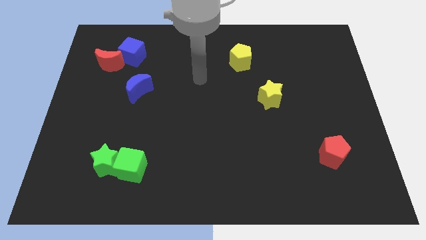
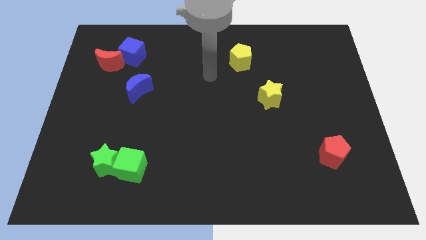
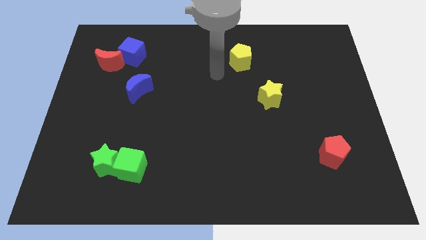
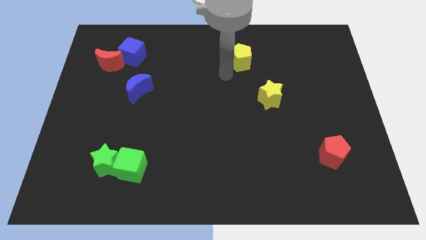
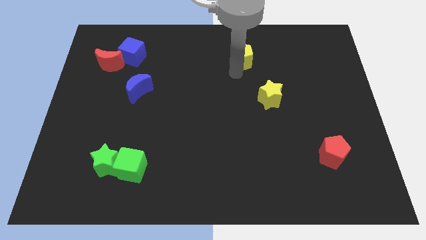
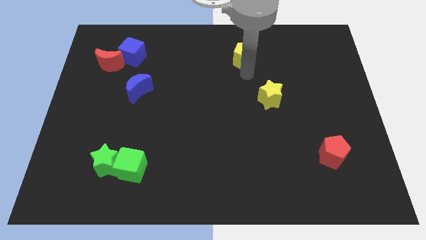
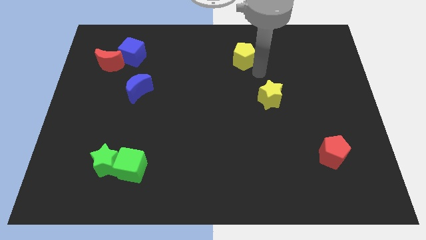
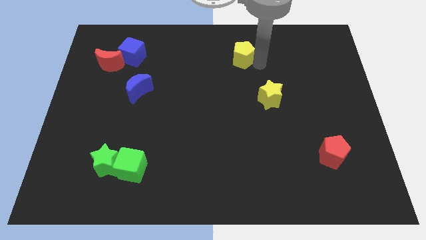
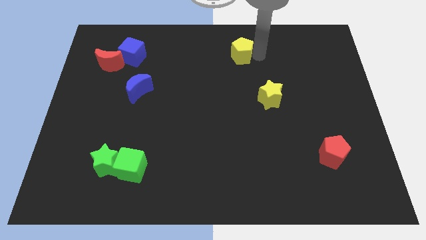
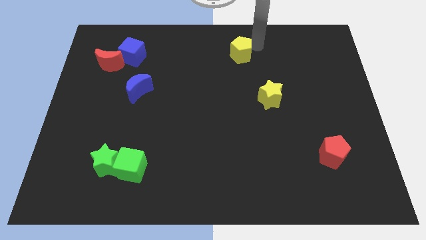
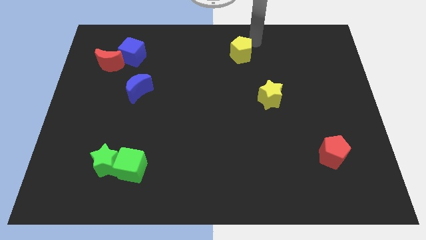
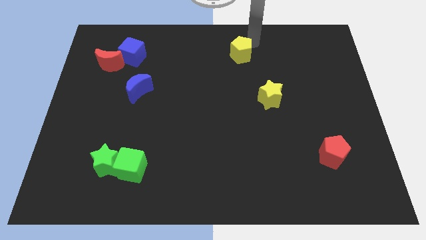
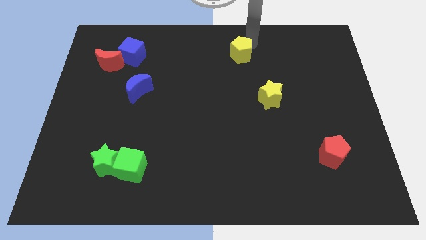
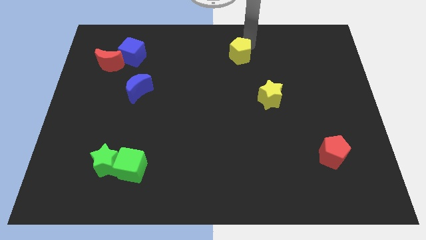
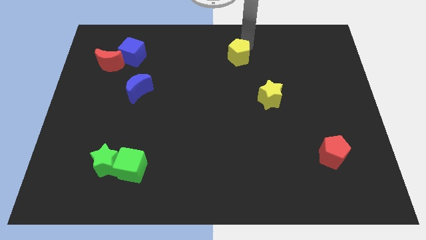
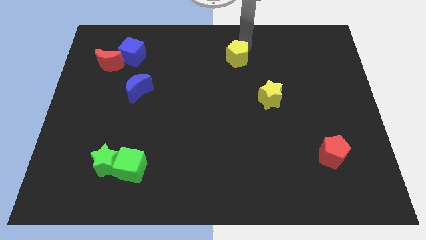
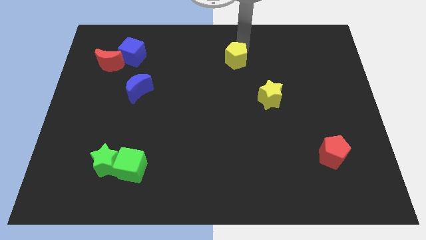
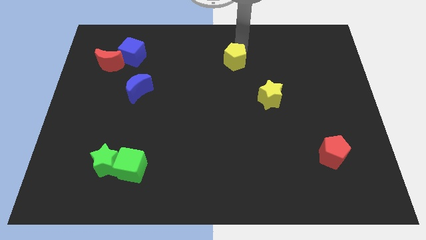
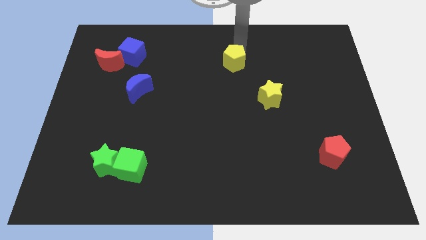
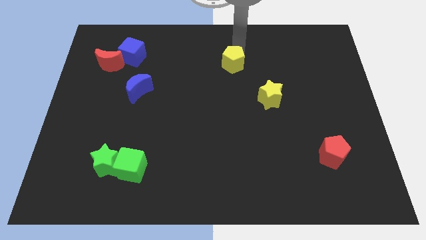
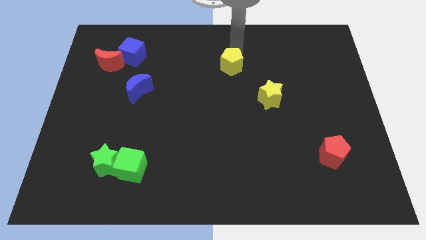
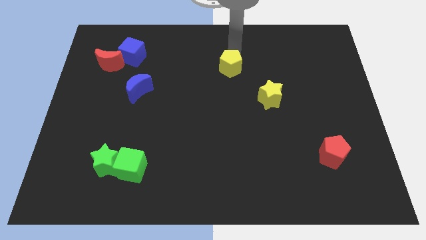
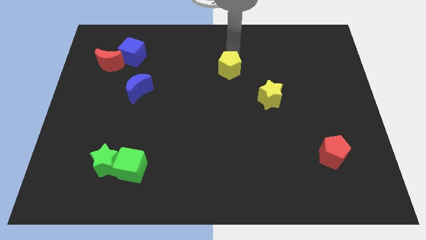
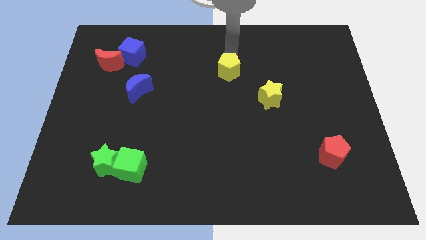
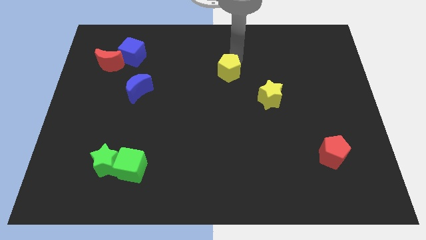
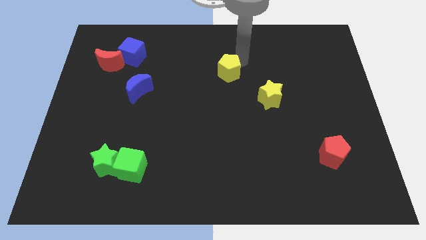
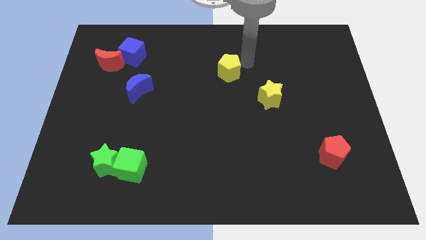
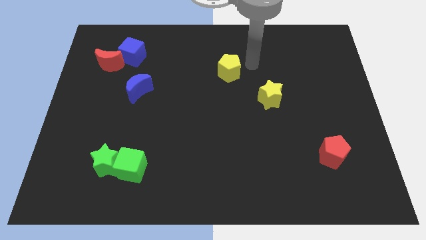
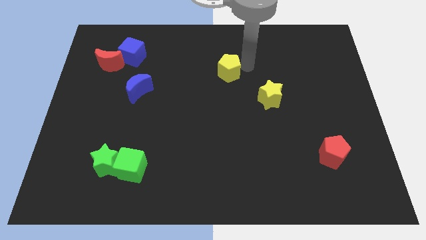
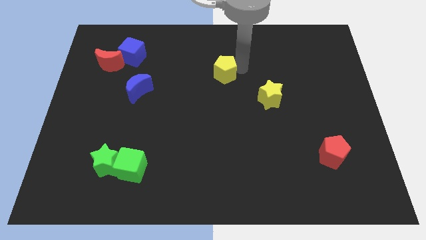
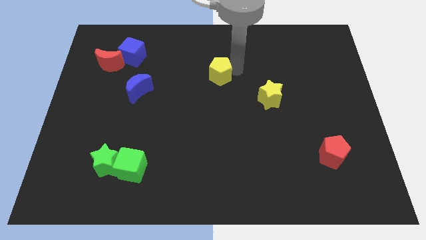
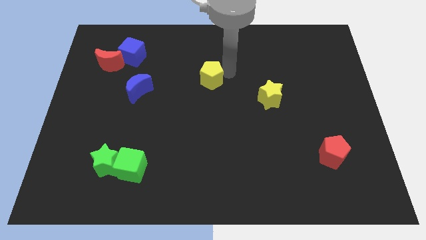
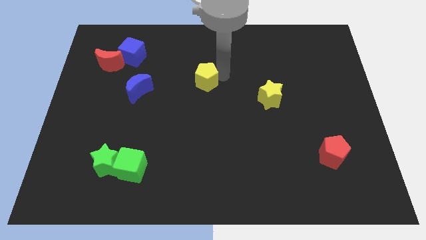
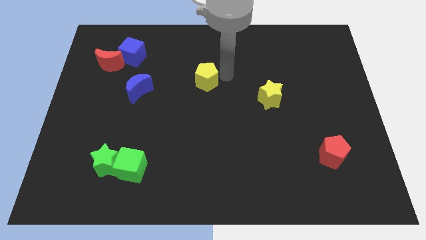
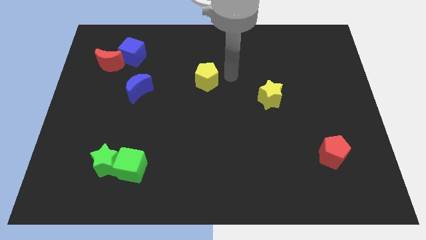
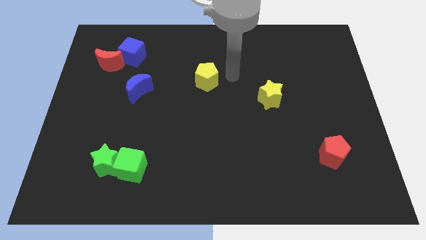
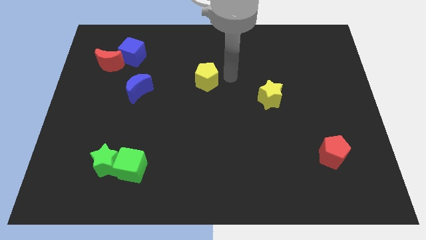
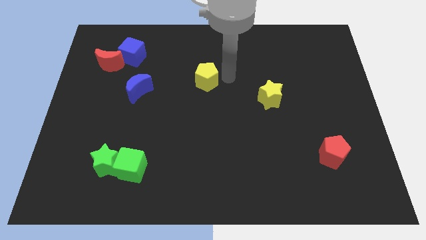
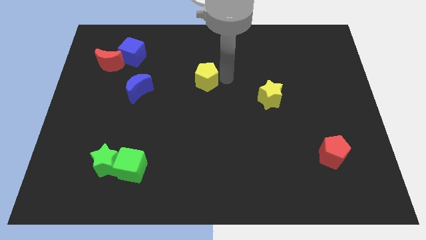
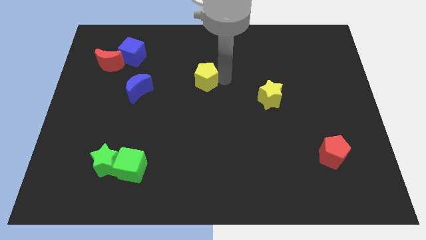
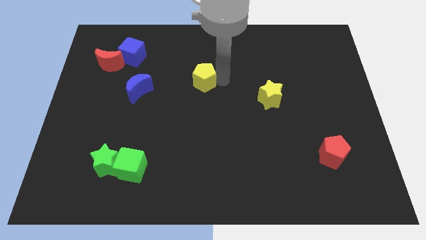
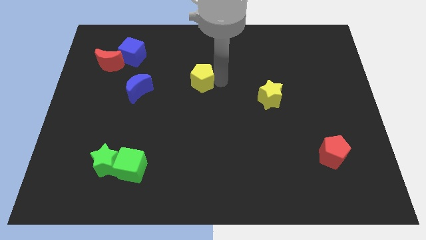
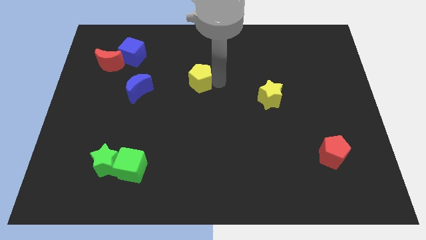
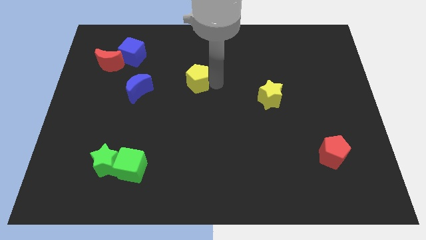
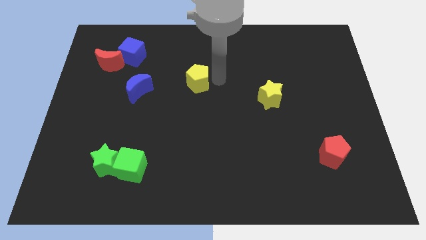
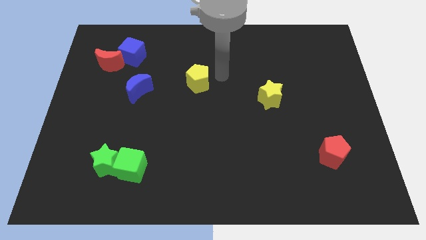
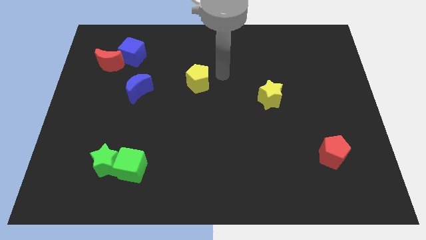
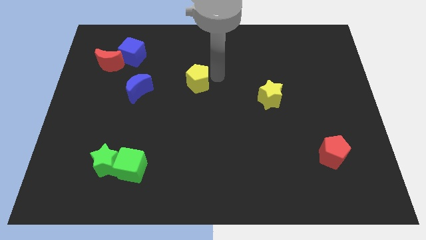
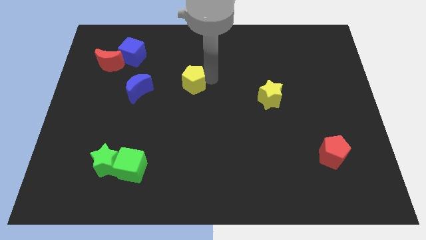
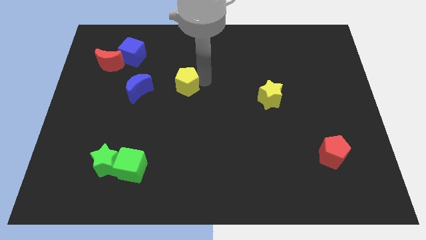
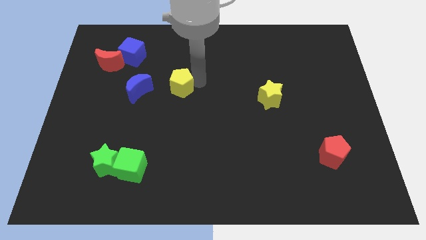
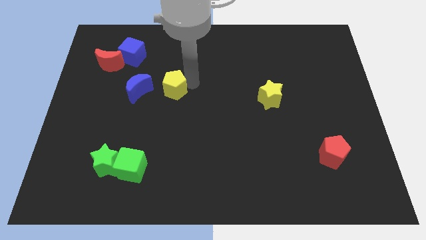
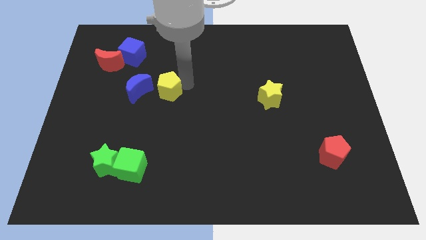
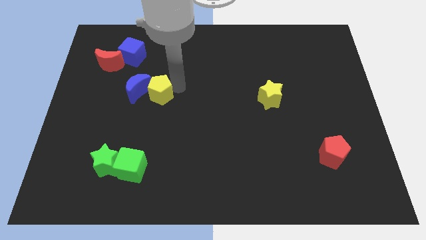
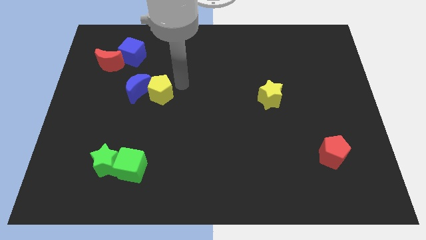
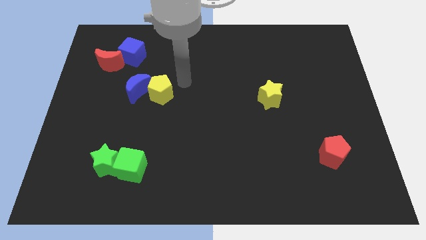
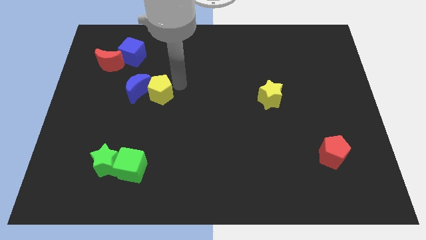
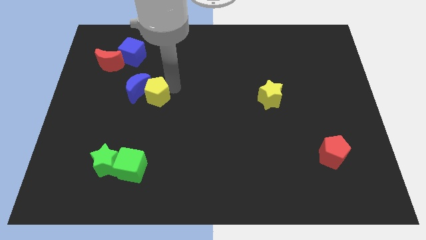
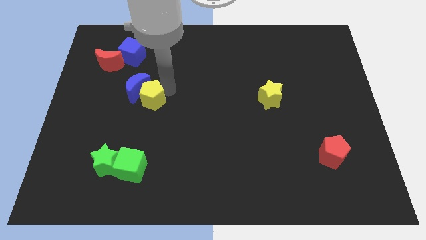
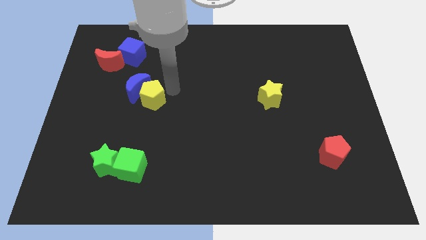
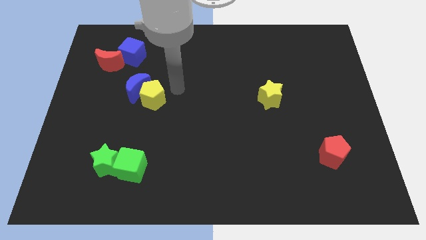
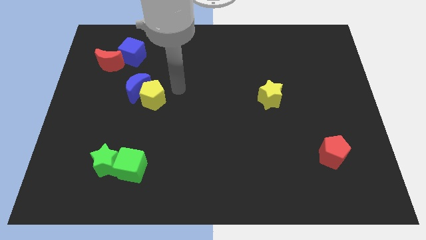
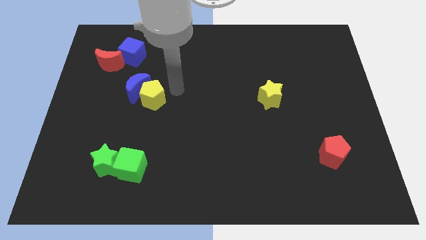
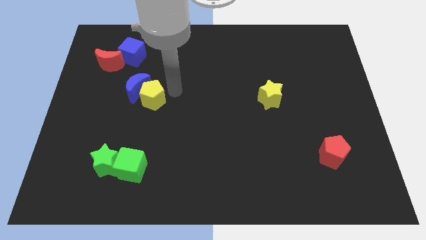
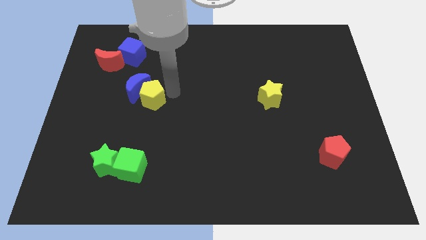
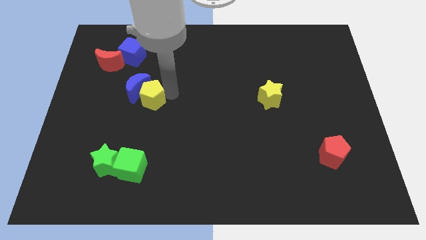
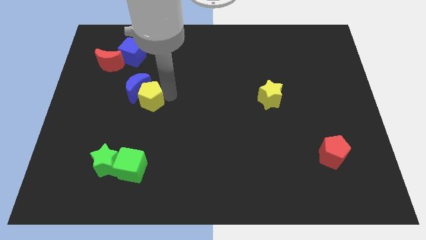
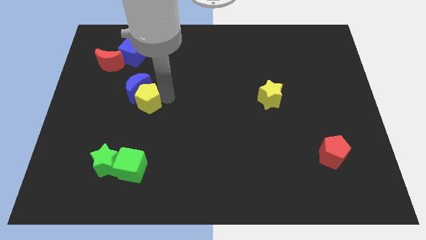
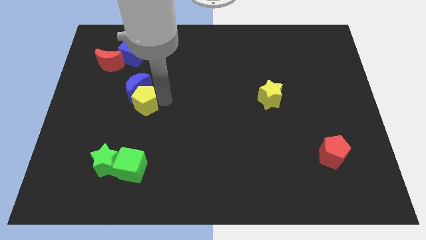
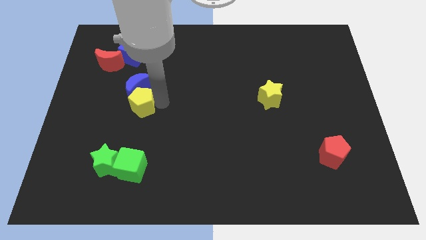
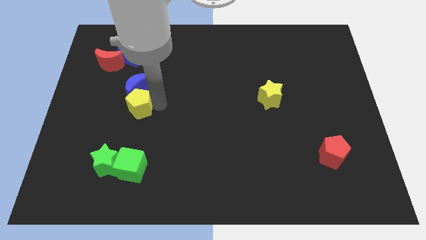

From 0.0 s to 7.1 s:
slide the yellow pentagon to the bottom left of the blue moon

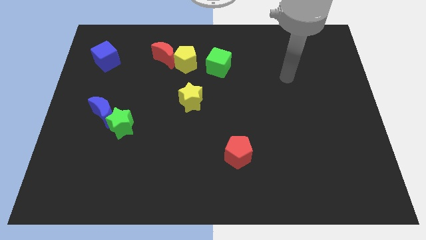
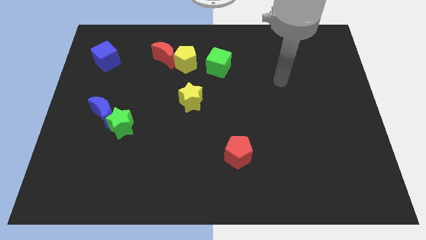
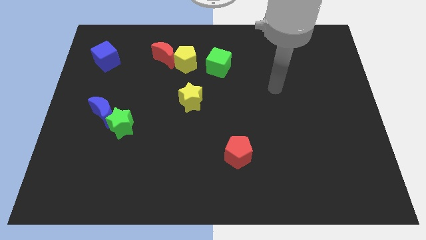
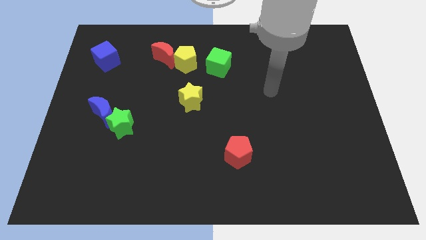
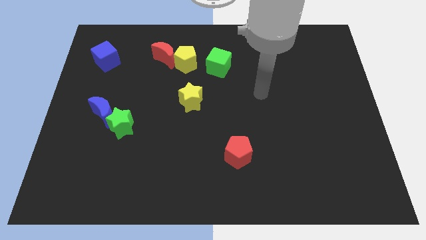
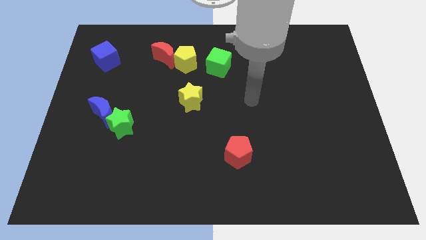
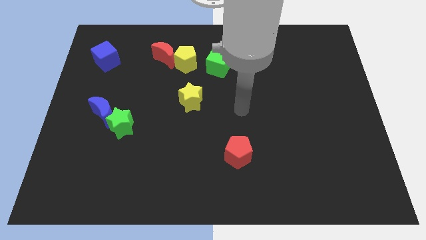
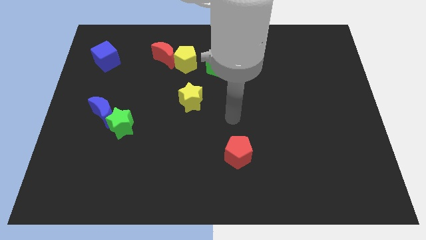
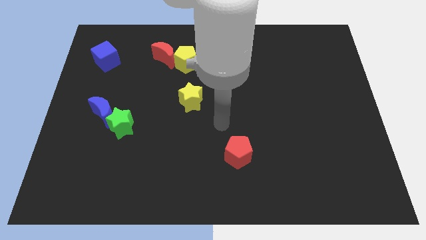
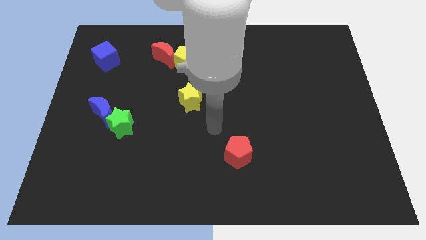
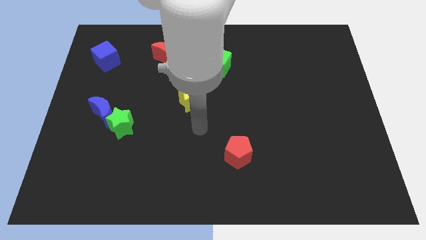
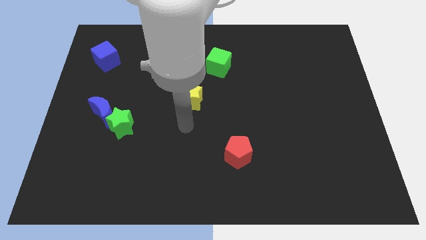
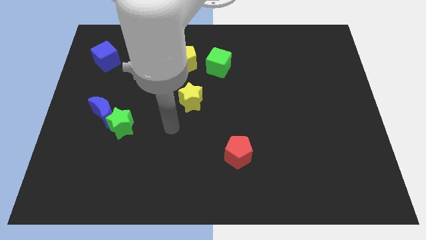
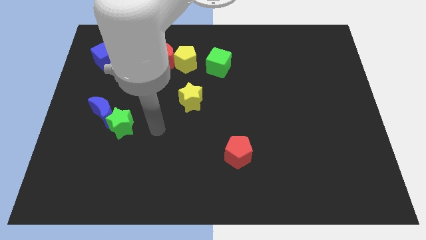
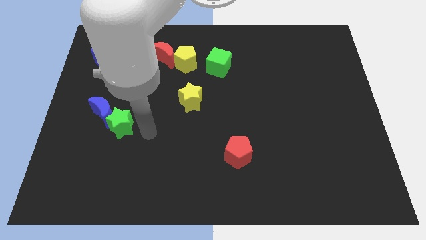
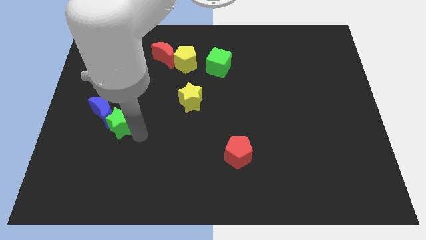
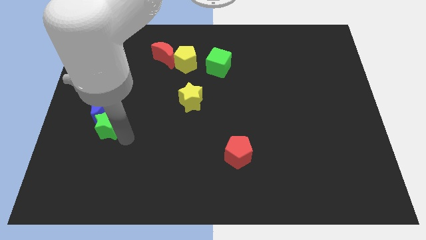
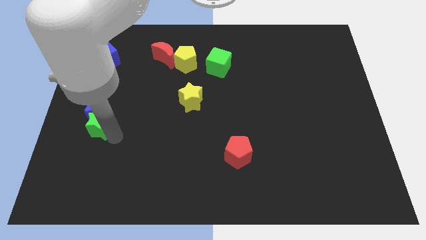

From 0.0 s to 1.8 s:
push the blue moon to the bottom of the blue cube
